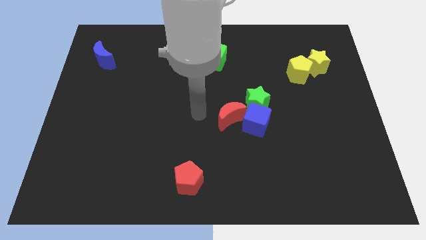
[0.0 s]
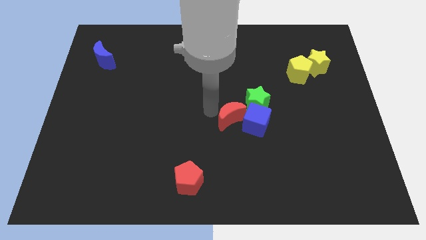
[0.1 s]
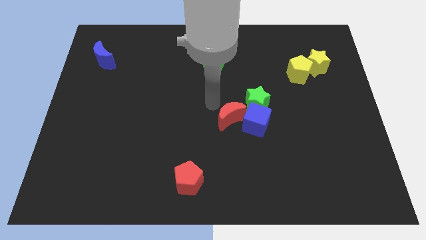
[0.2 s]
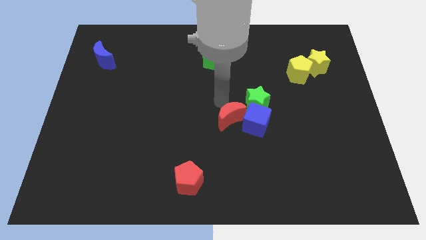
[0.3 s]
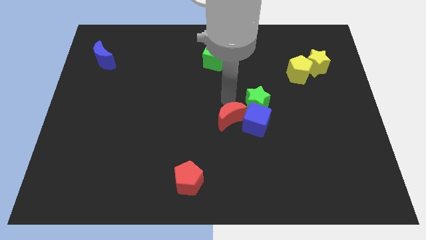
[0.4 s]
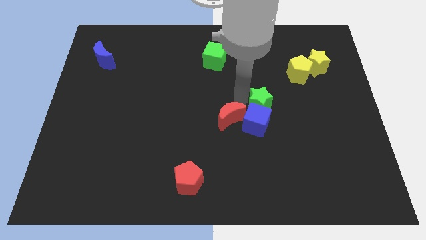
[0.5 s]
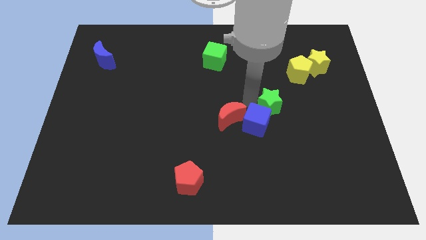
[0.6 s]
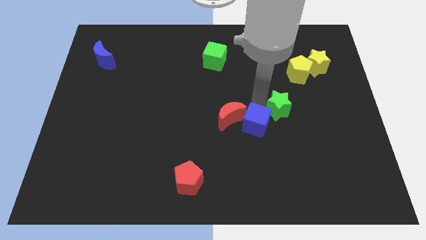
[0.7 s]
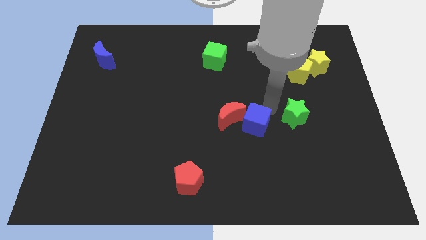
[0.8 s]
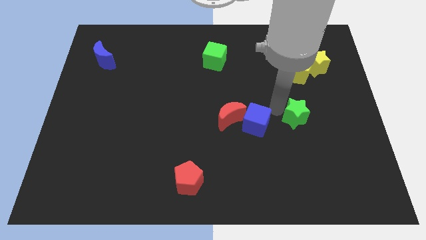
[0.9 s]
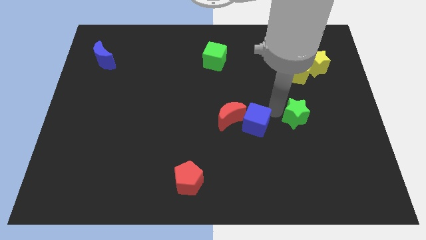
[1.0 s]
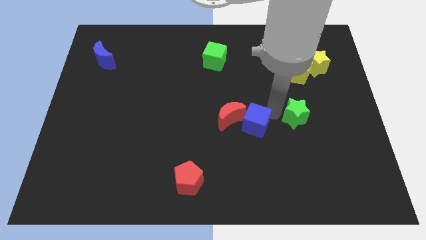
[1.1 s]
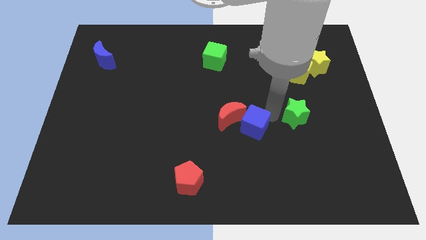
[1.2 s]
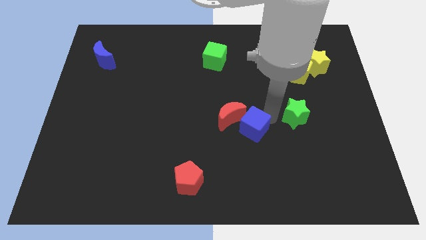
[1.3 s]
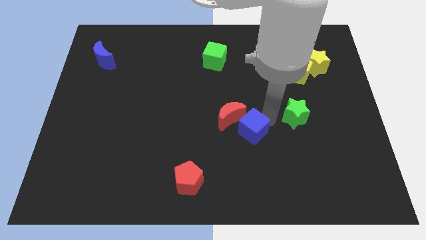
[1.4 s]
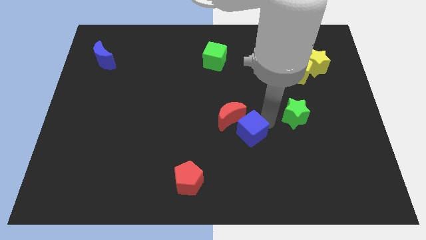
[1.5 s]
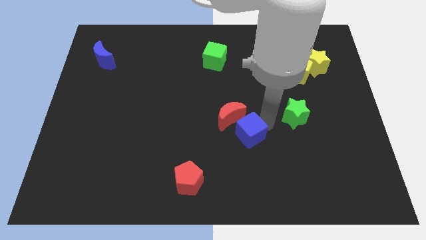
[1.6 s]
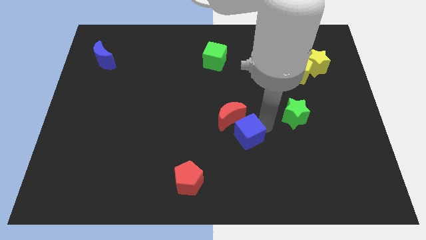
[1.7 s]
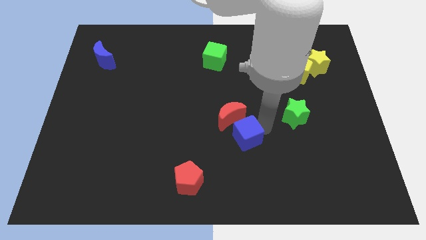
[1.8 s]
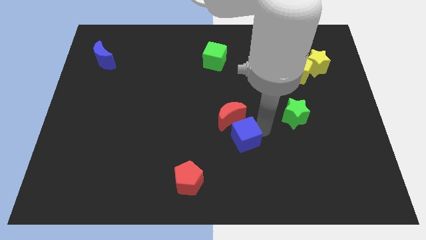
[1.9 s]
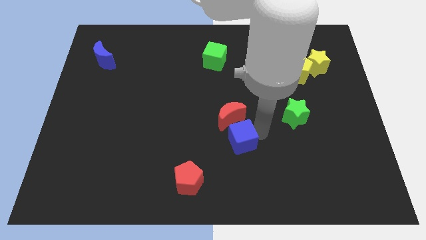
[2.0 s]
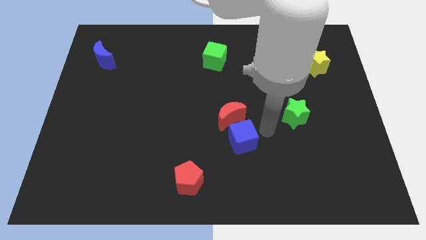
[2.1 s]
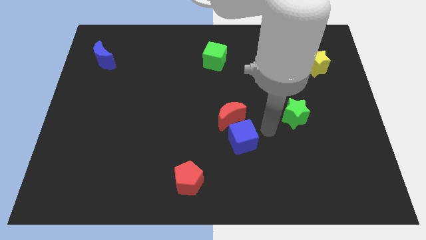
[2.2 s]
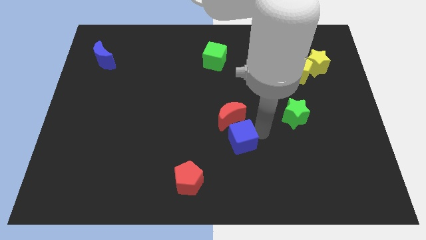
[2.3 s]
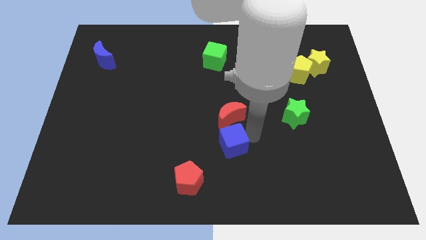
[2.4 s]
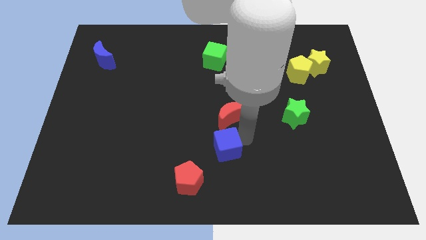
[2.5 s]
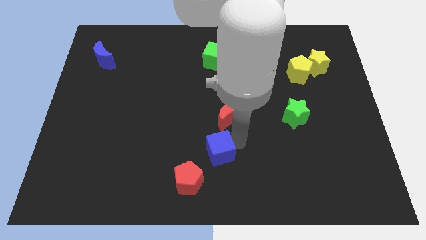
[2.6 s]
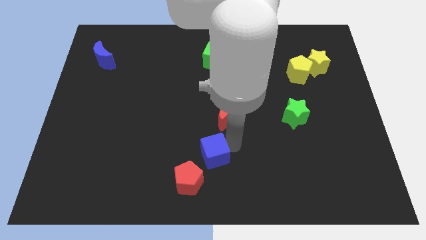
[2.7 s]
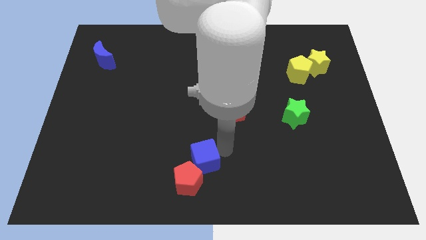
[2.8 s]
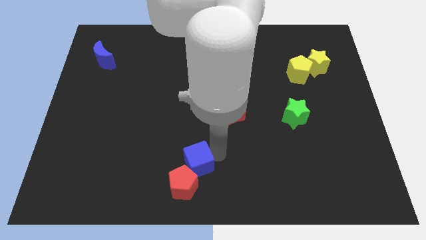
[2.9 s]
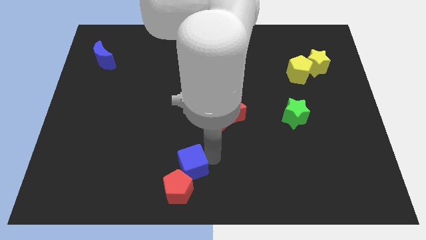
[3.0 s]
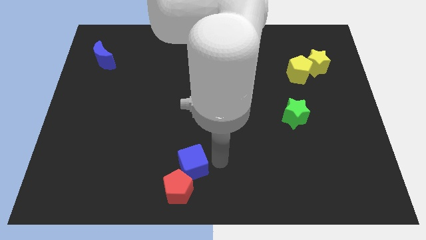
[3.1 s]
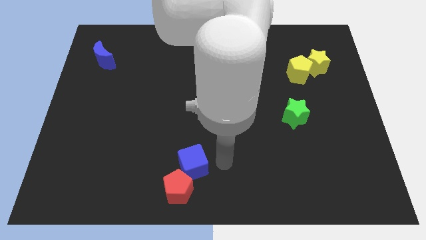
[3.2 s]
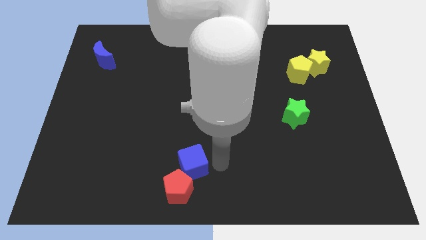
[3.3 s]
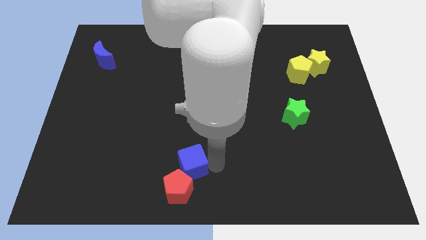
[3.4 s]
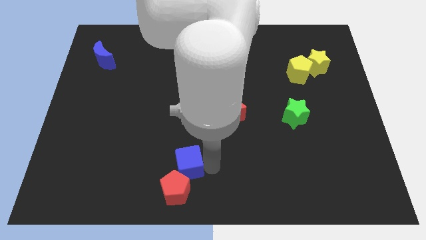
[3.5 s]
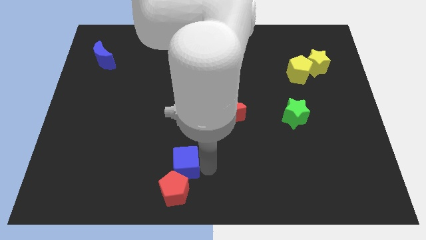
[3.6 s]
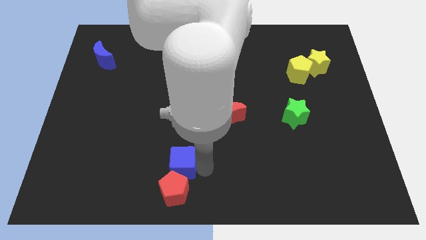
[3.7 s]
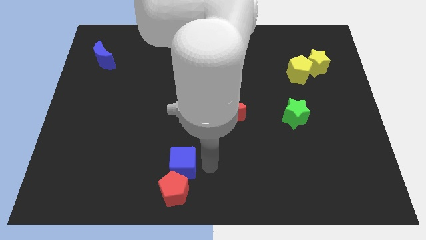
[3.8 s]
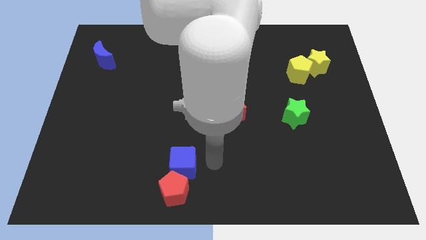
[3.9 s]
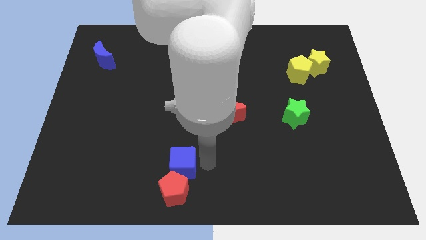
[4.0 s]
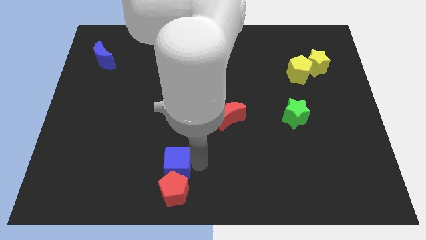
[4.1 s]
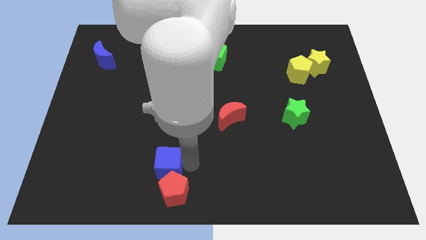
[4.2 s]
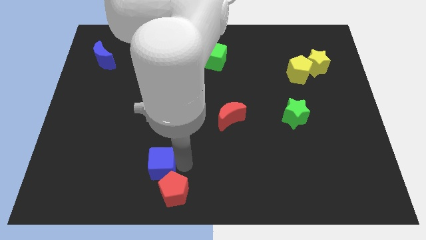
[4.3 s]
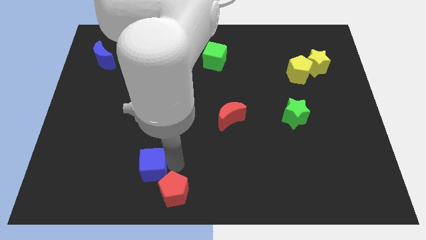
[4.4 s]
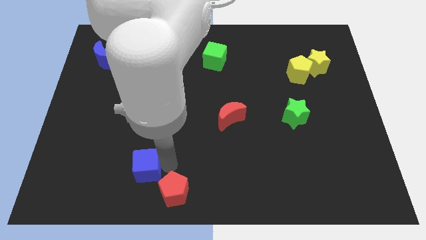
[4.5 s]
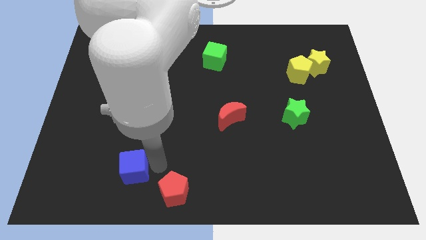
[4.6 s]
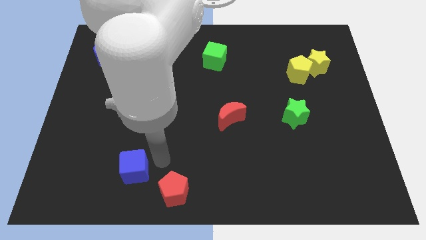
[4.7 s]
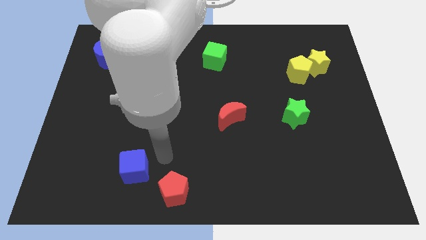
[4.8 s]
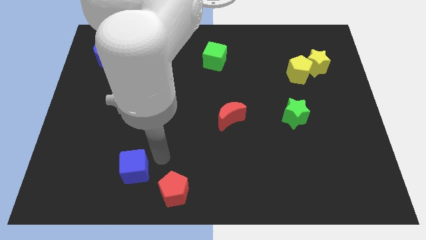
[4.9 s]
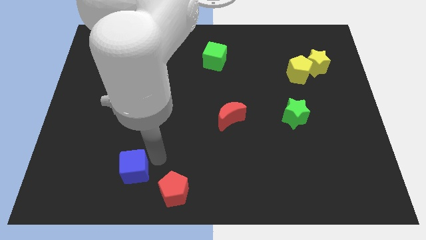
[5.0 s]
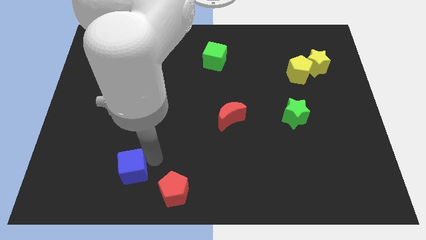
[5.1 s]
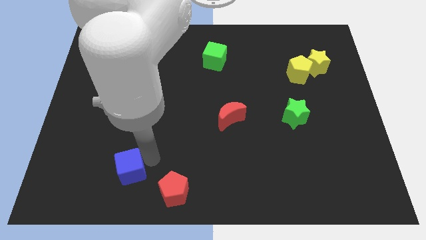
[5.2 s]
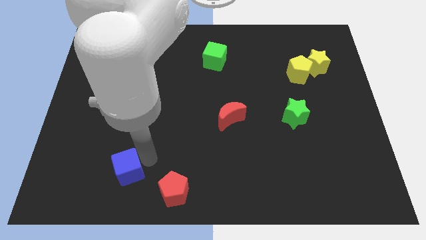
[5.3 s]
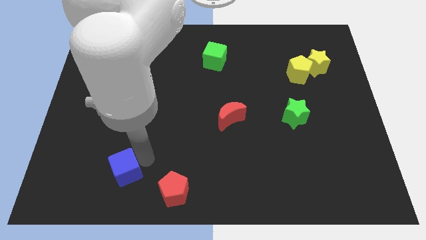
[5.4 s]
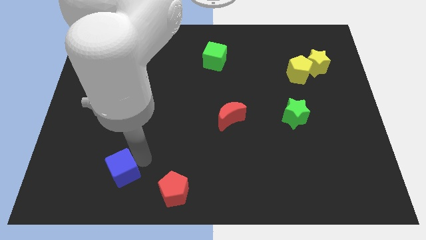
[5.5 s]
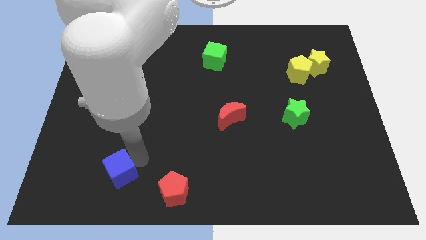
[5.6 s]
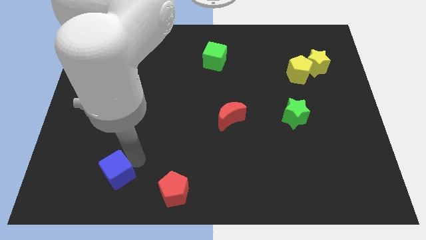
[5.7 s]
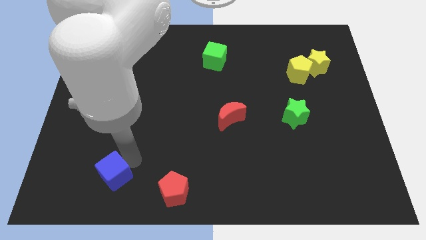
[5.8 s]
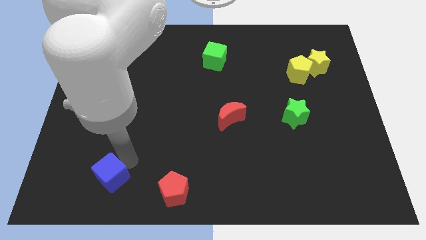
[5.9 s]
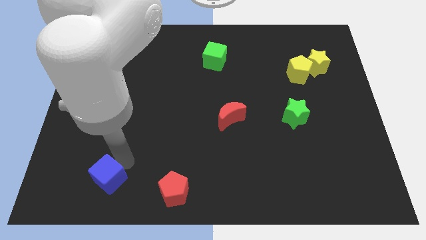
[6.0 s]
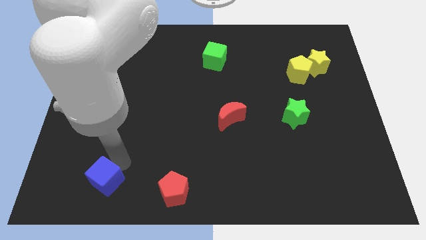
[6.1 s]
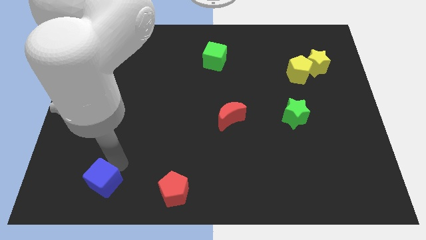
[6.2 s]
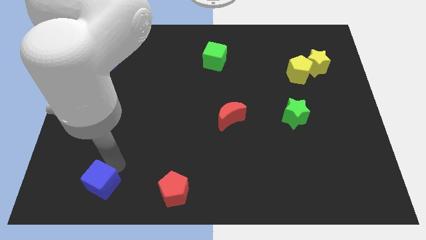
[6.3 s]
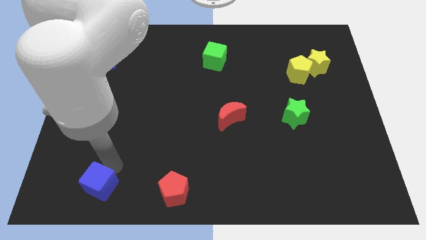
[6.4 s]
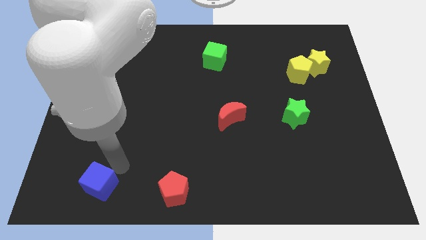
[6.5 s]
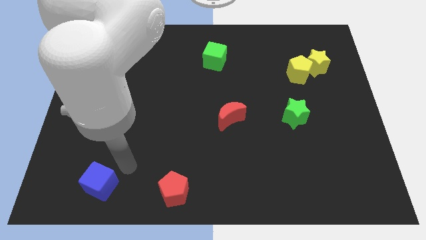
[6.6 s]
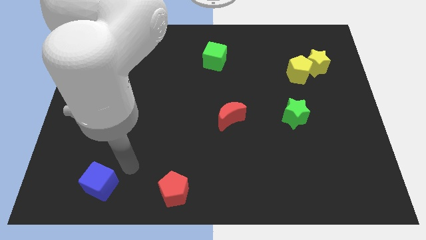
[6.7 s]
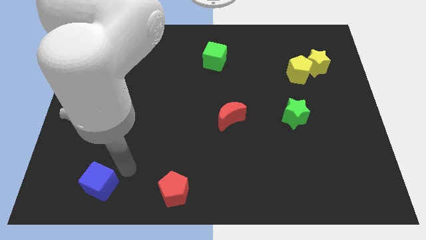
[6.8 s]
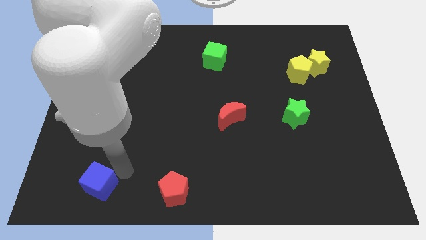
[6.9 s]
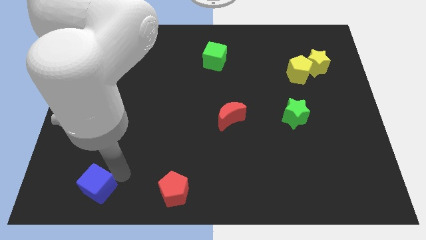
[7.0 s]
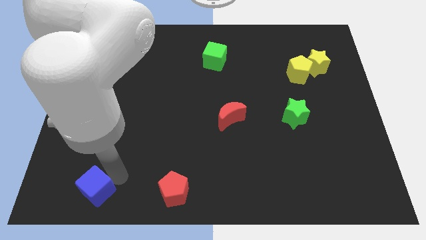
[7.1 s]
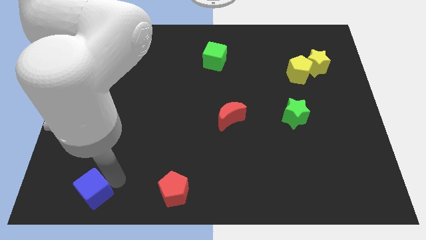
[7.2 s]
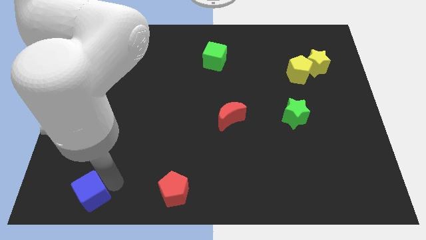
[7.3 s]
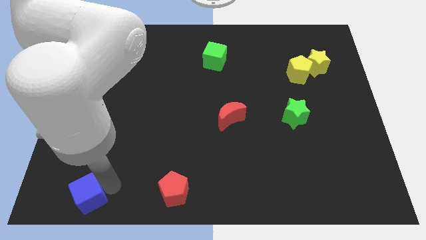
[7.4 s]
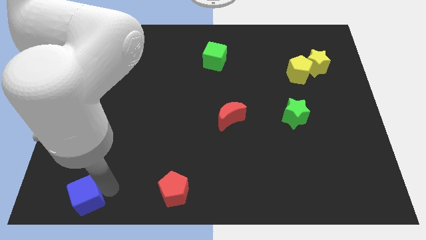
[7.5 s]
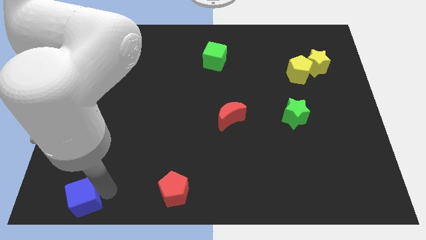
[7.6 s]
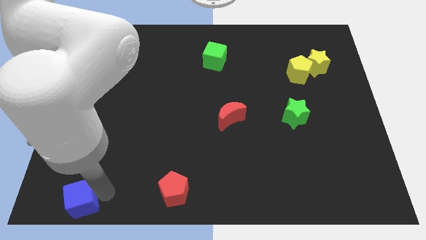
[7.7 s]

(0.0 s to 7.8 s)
push the blue cube to the bottom left
